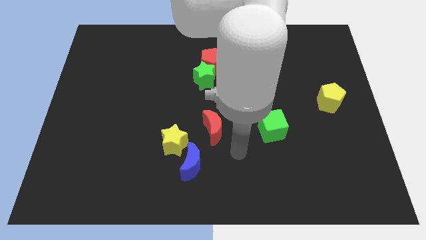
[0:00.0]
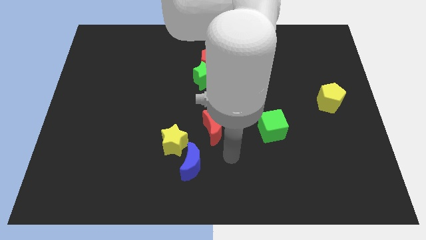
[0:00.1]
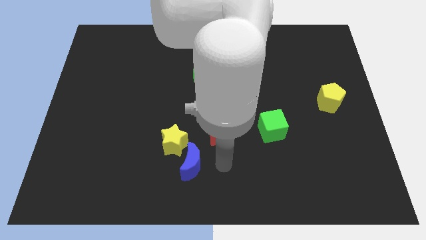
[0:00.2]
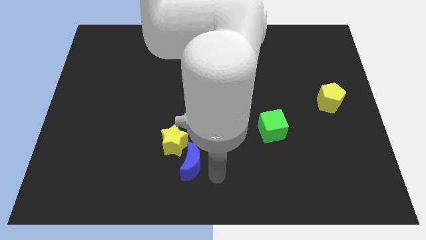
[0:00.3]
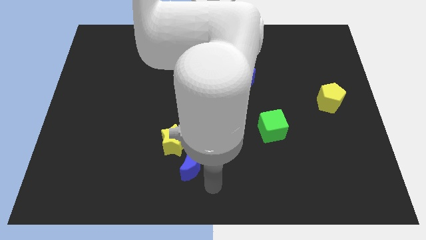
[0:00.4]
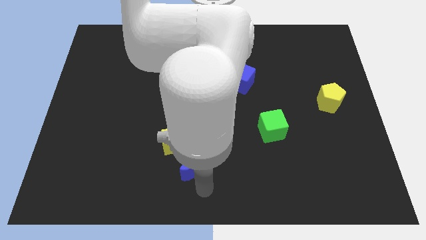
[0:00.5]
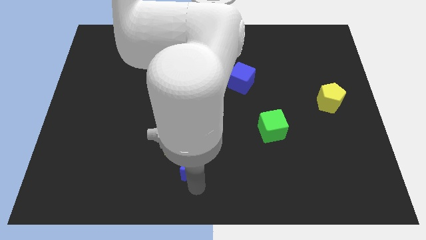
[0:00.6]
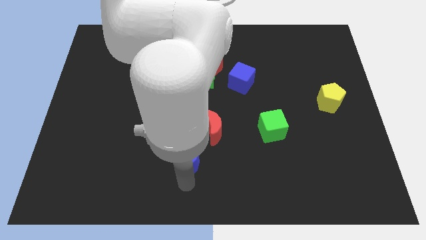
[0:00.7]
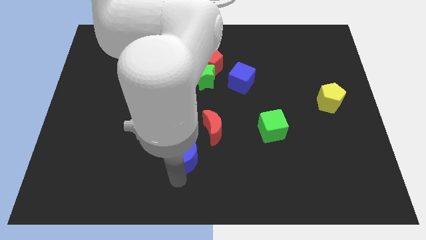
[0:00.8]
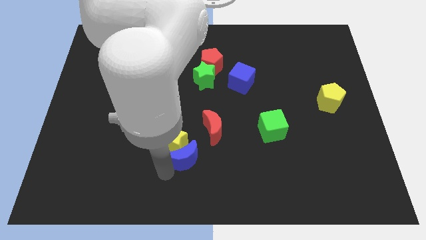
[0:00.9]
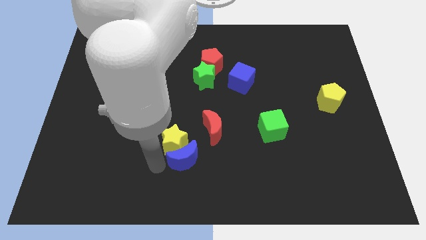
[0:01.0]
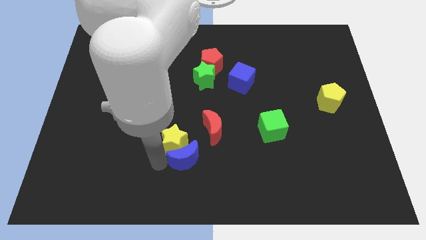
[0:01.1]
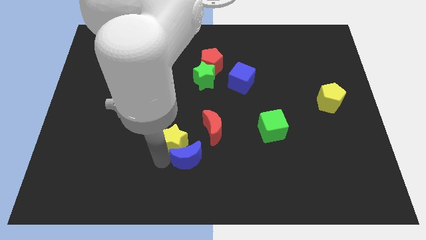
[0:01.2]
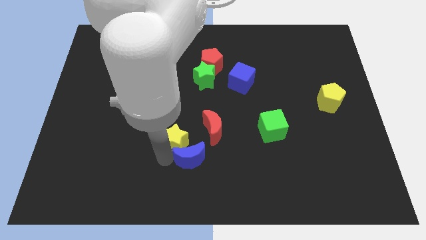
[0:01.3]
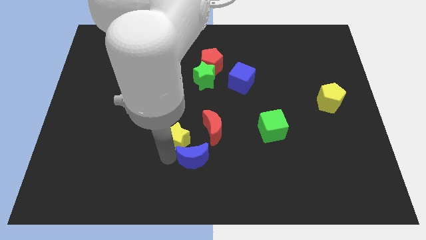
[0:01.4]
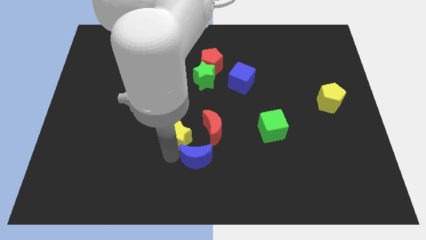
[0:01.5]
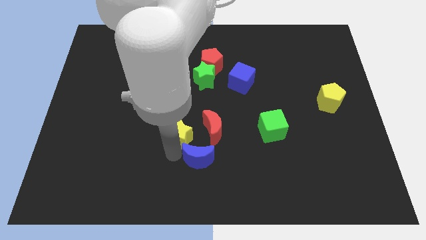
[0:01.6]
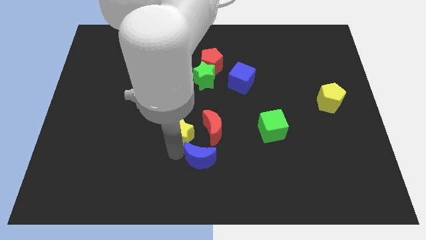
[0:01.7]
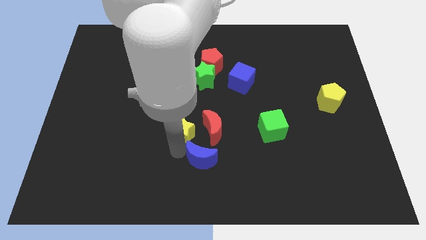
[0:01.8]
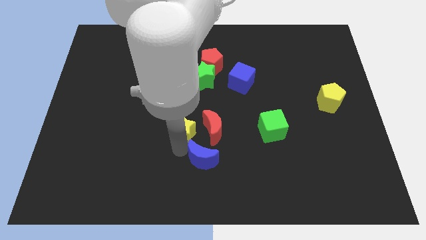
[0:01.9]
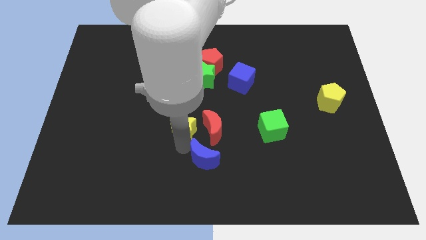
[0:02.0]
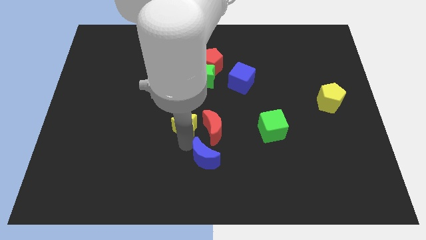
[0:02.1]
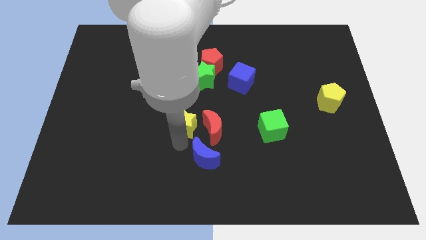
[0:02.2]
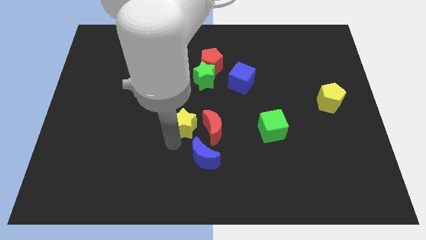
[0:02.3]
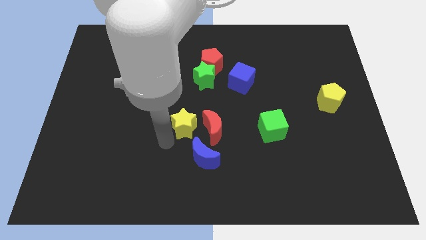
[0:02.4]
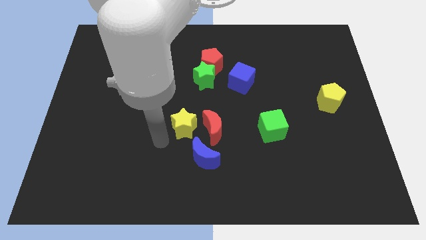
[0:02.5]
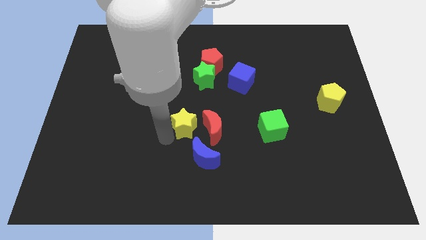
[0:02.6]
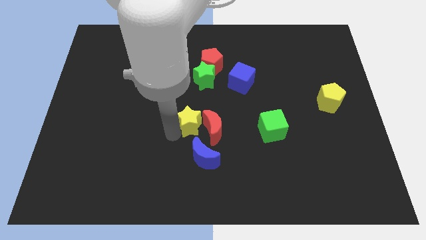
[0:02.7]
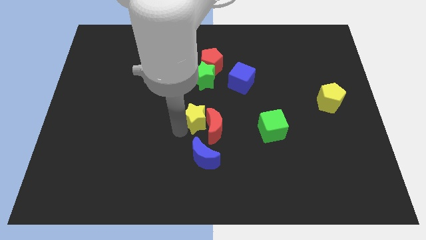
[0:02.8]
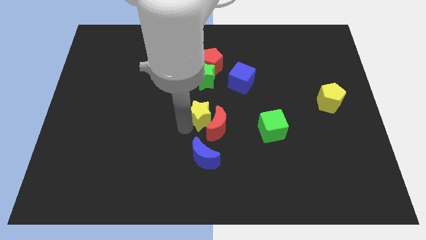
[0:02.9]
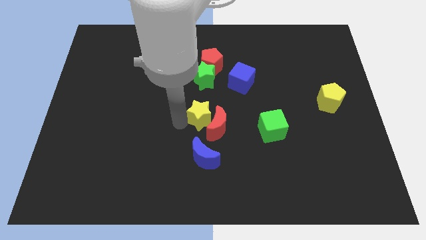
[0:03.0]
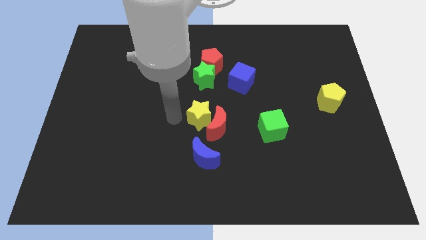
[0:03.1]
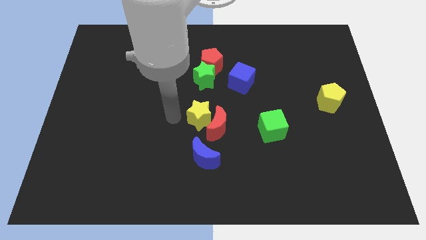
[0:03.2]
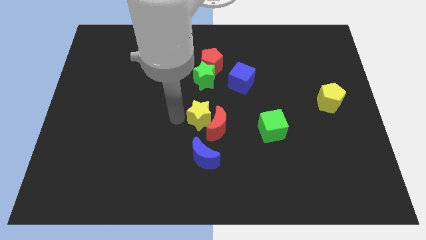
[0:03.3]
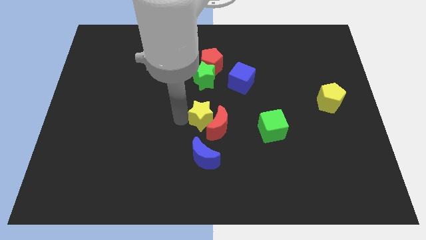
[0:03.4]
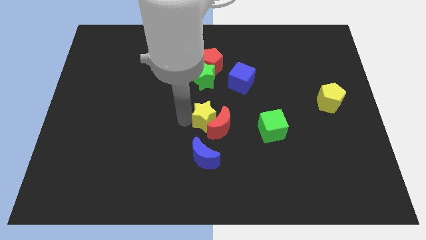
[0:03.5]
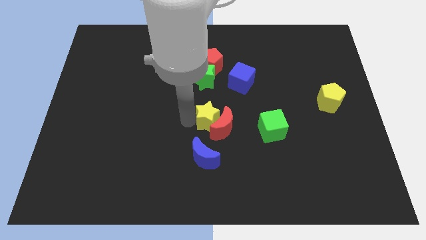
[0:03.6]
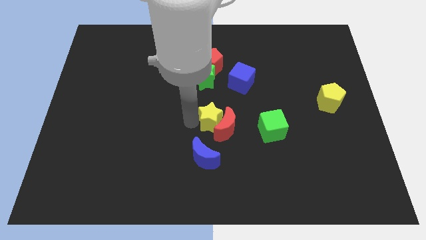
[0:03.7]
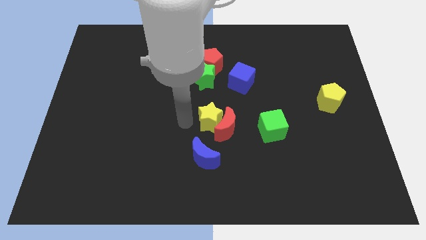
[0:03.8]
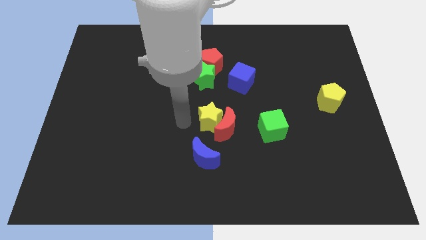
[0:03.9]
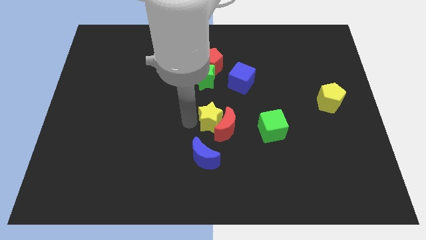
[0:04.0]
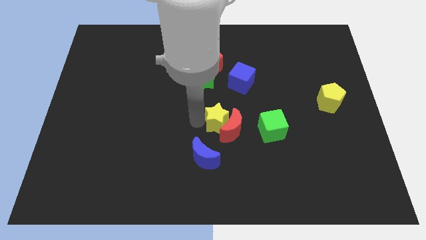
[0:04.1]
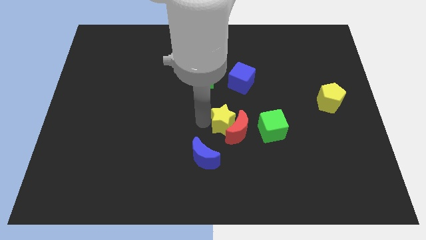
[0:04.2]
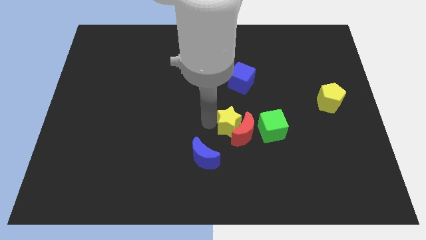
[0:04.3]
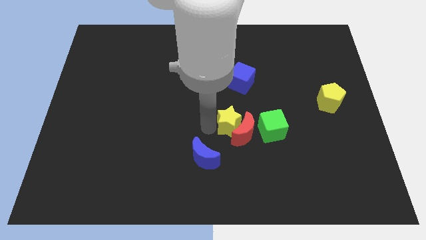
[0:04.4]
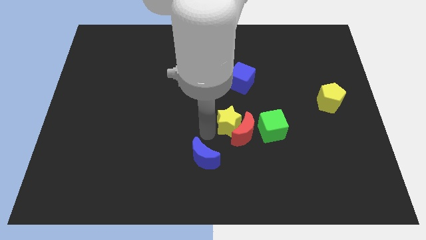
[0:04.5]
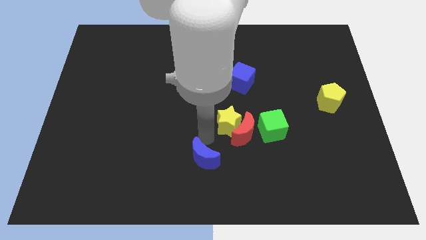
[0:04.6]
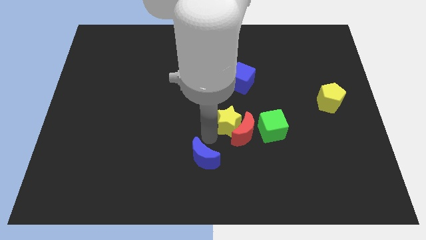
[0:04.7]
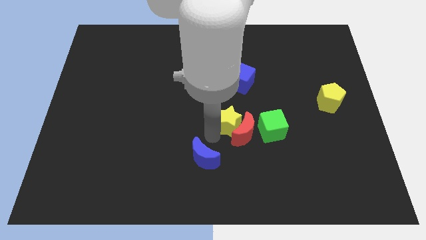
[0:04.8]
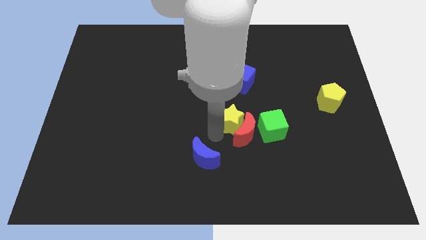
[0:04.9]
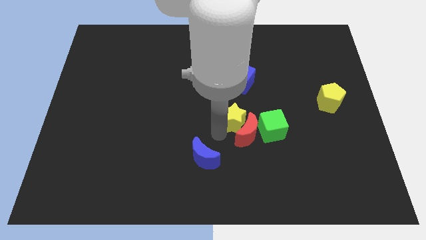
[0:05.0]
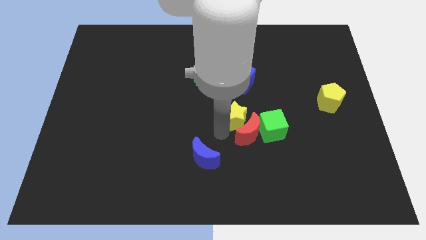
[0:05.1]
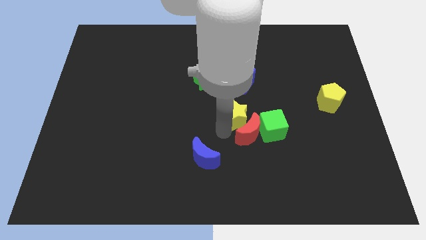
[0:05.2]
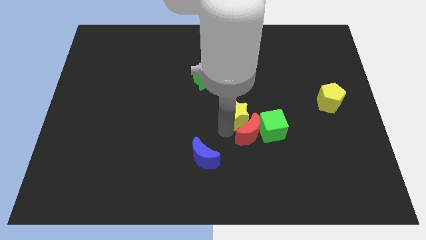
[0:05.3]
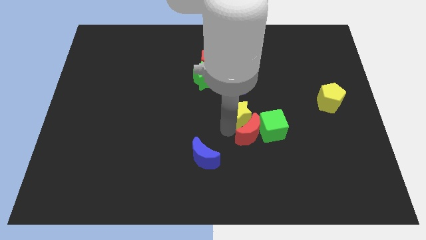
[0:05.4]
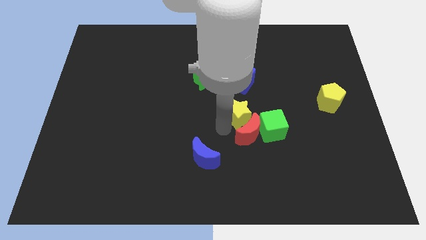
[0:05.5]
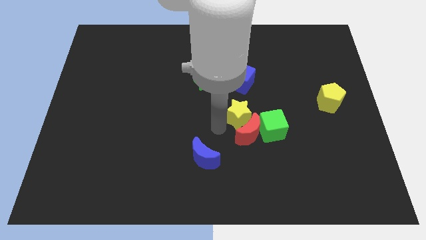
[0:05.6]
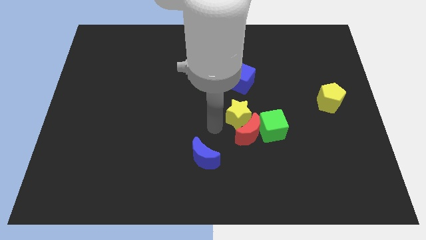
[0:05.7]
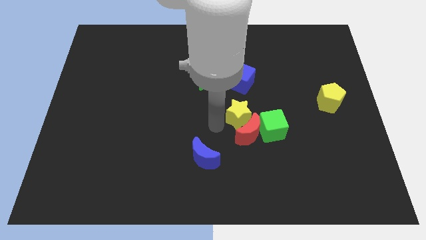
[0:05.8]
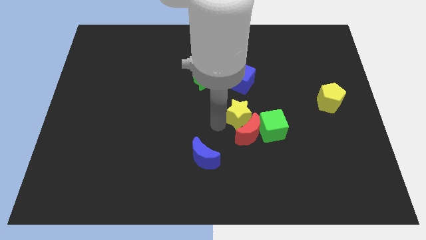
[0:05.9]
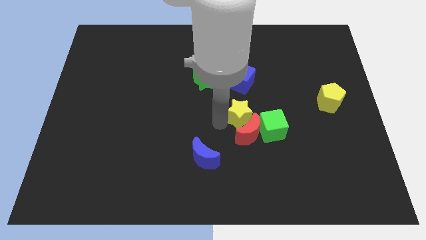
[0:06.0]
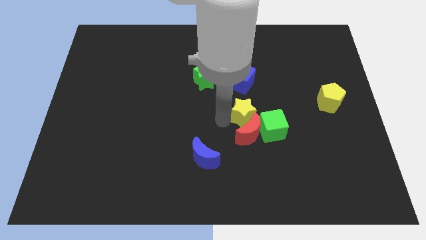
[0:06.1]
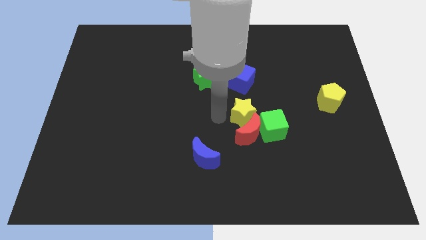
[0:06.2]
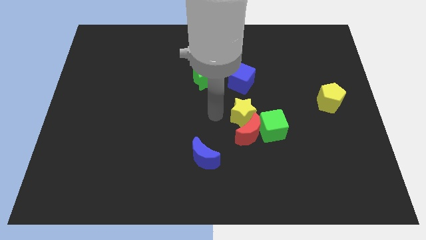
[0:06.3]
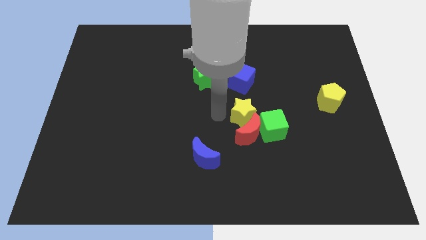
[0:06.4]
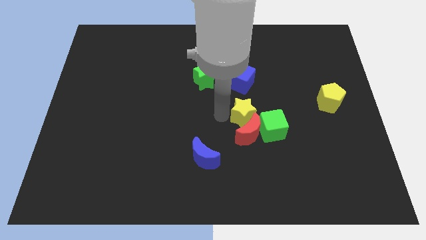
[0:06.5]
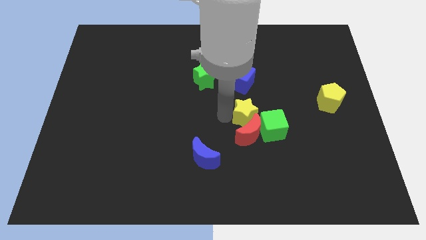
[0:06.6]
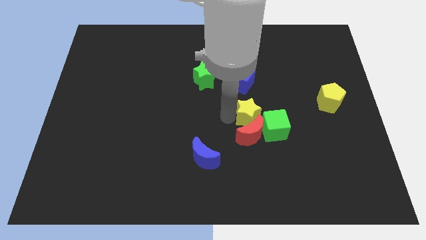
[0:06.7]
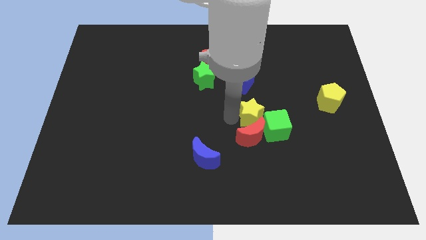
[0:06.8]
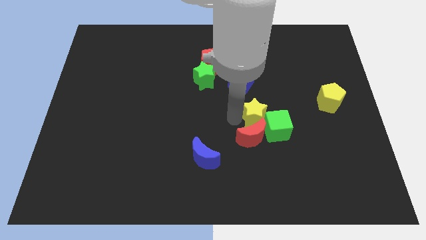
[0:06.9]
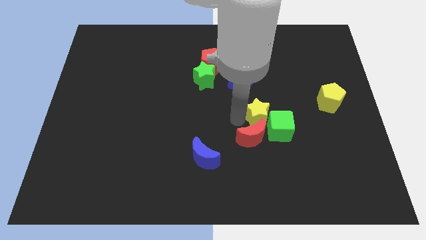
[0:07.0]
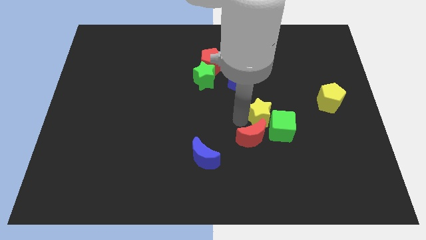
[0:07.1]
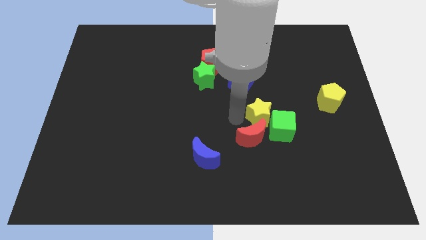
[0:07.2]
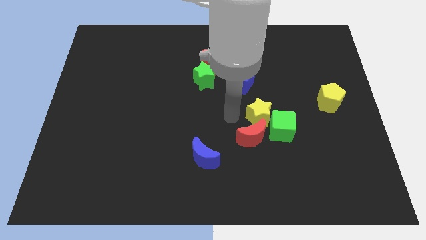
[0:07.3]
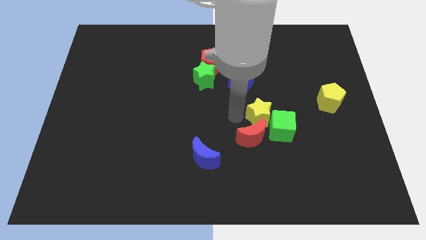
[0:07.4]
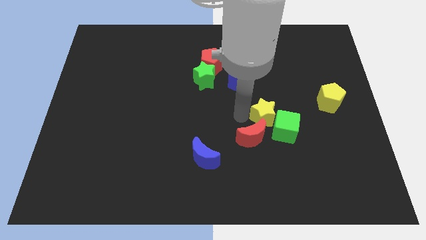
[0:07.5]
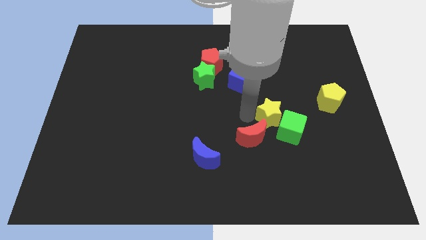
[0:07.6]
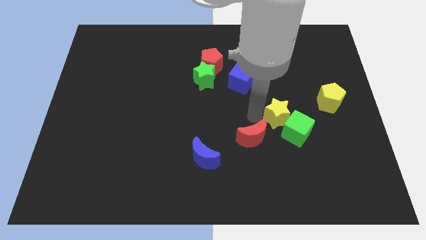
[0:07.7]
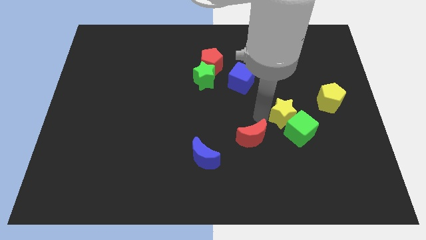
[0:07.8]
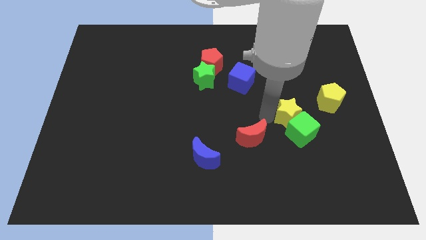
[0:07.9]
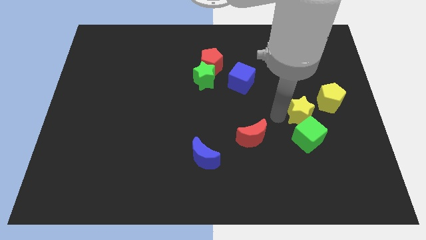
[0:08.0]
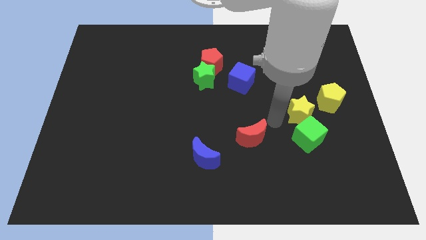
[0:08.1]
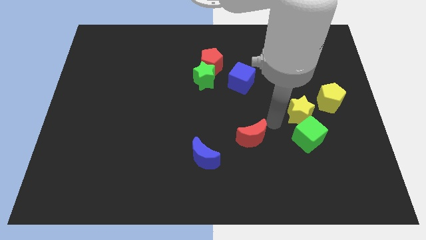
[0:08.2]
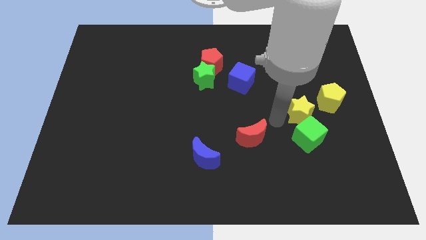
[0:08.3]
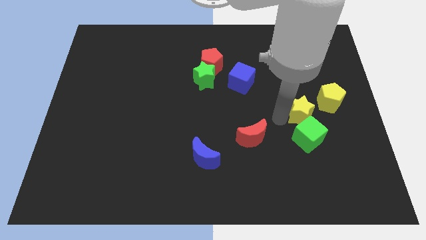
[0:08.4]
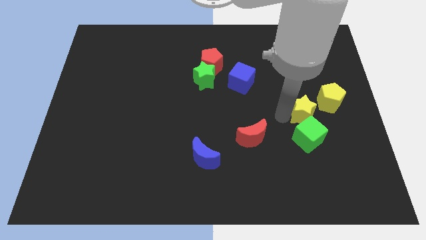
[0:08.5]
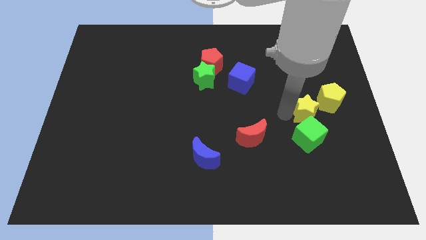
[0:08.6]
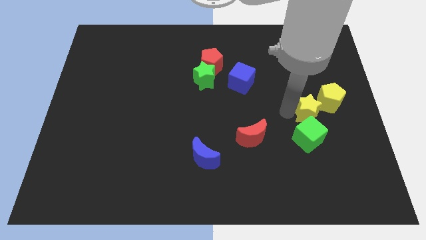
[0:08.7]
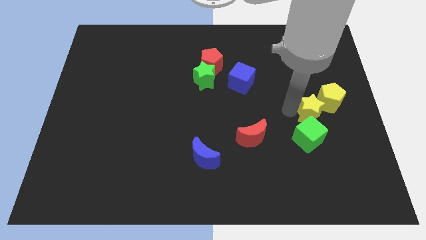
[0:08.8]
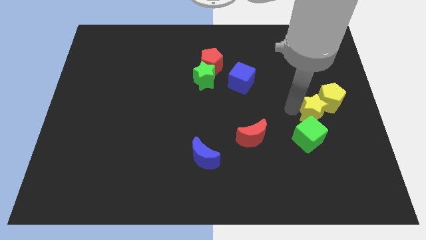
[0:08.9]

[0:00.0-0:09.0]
slide the yellow star close to the yellow pentagon
